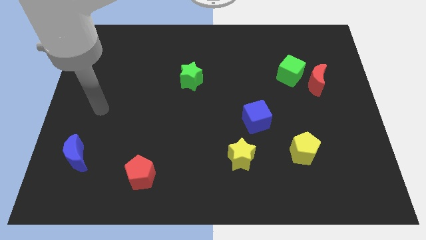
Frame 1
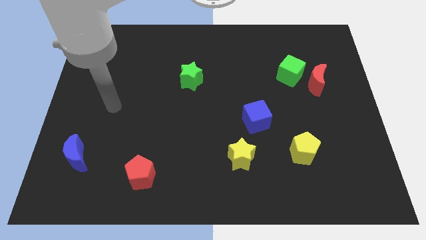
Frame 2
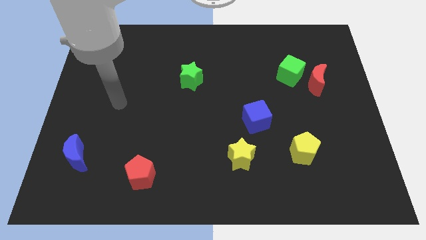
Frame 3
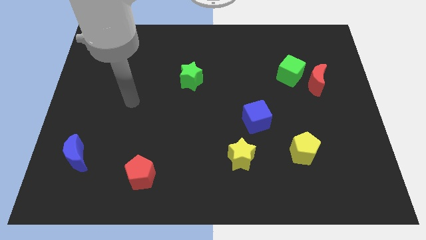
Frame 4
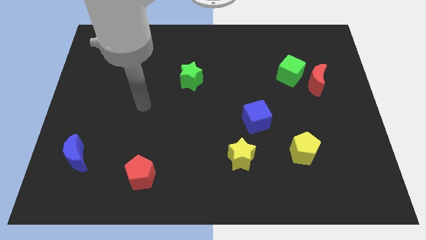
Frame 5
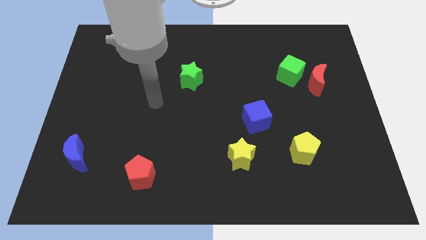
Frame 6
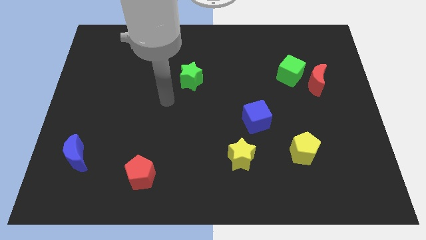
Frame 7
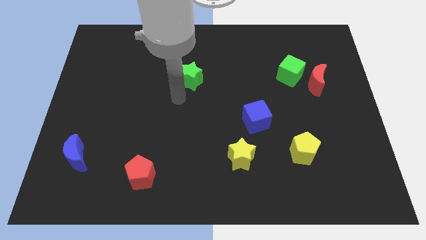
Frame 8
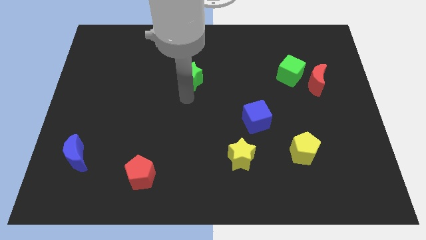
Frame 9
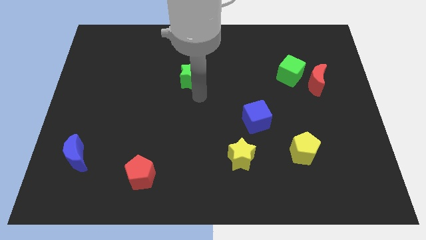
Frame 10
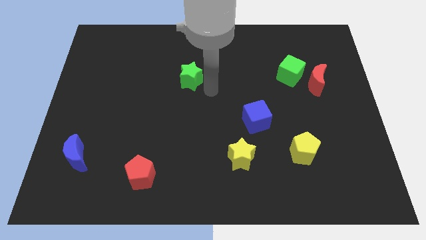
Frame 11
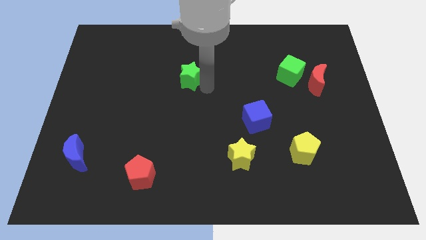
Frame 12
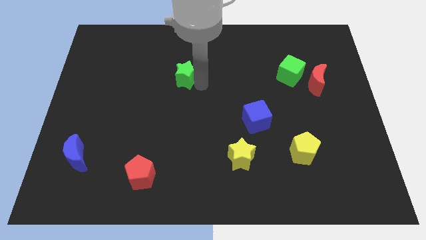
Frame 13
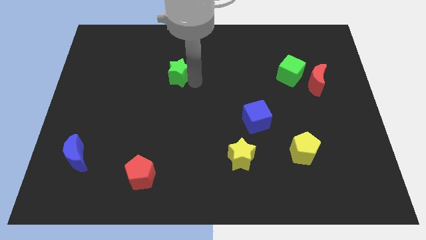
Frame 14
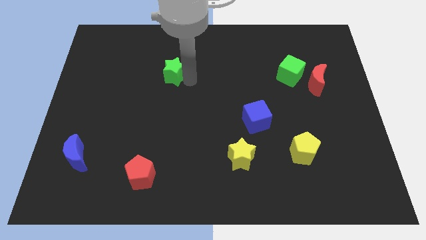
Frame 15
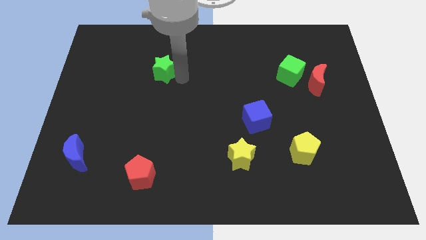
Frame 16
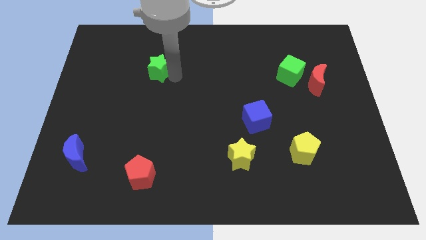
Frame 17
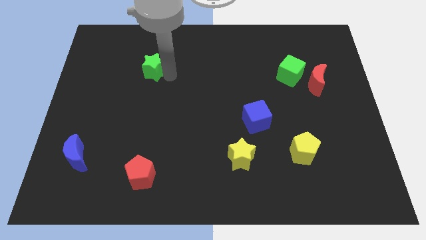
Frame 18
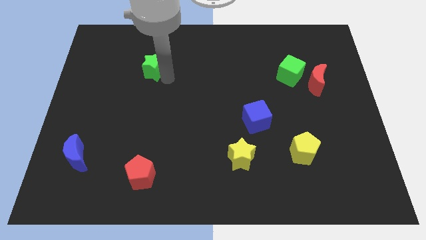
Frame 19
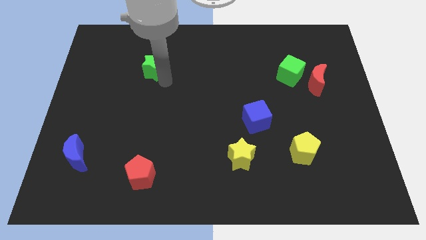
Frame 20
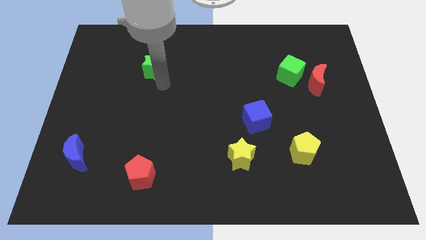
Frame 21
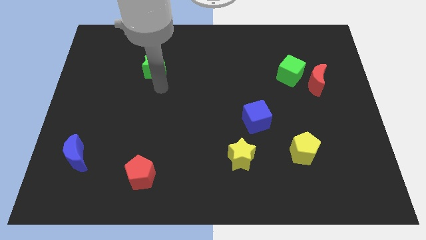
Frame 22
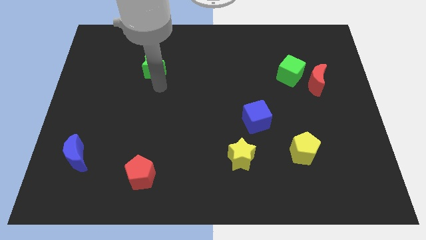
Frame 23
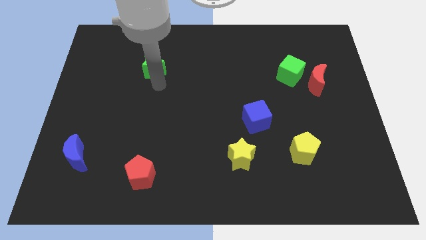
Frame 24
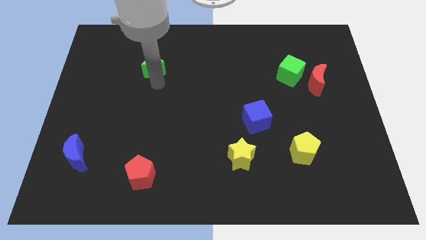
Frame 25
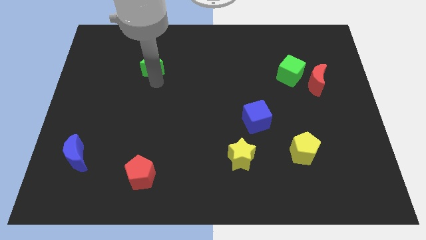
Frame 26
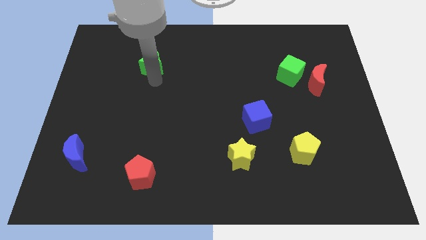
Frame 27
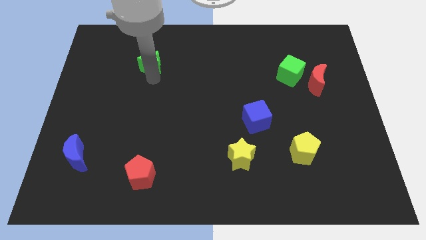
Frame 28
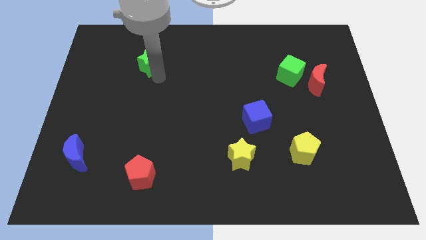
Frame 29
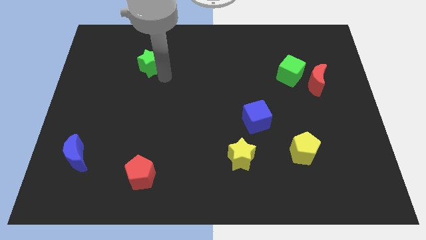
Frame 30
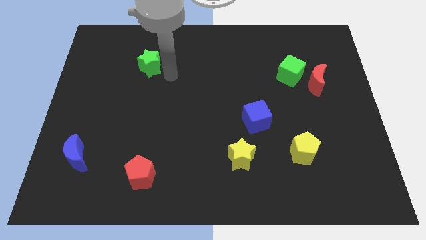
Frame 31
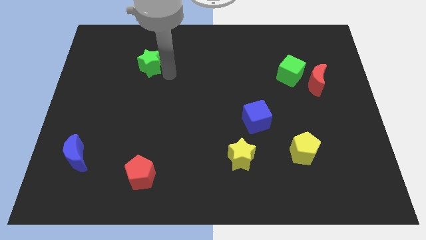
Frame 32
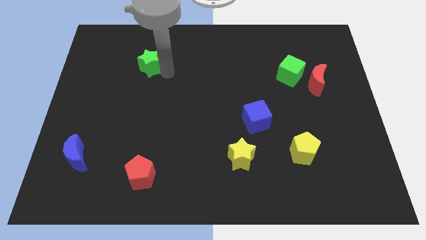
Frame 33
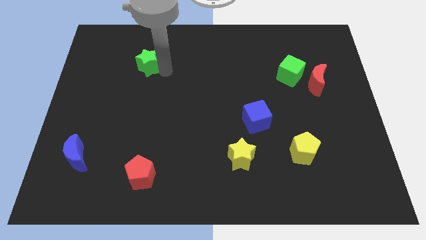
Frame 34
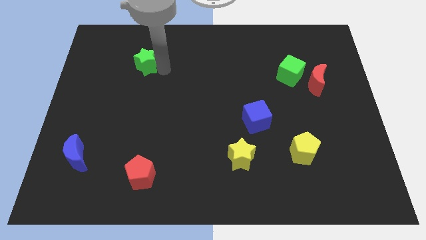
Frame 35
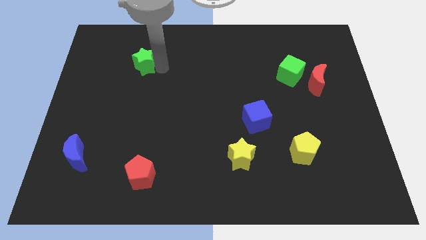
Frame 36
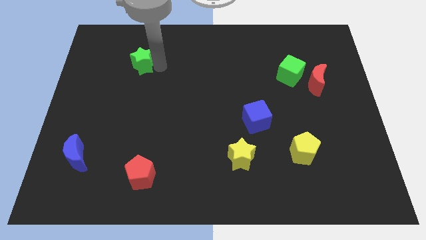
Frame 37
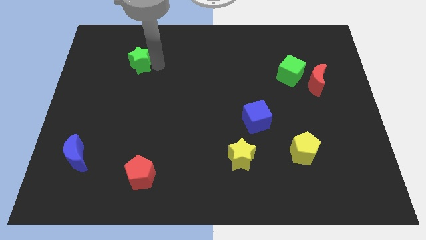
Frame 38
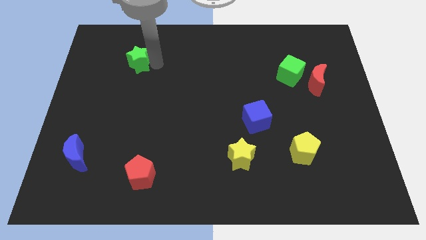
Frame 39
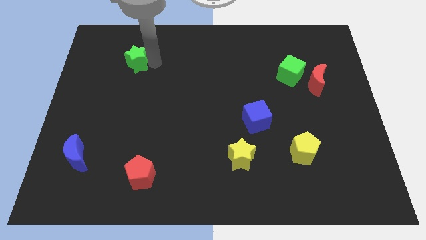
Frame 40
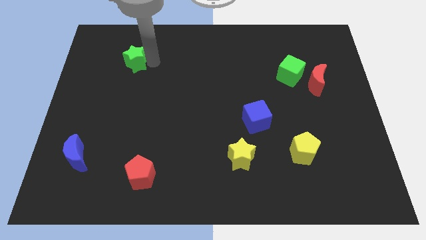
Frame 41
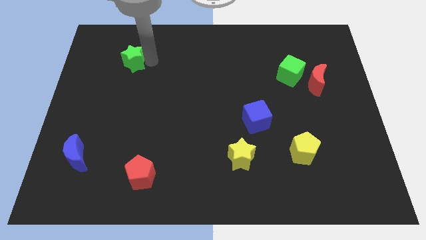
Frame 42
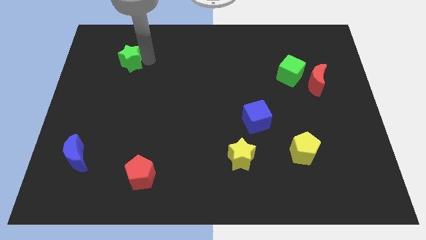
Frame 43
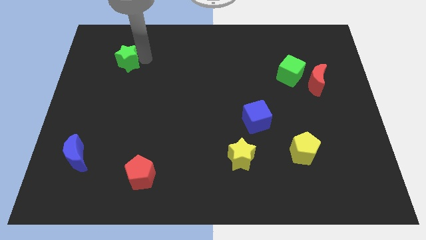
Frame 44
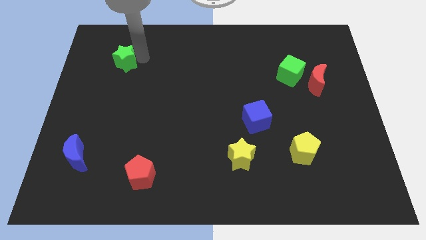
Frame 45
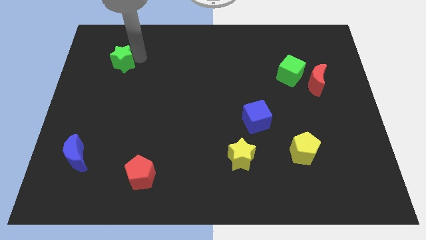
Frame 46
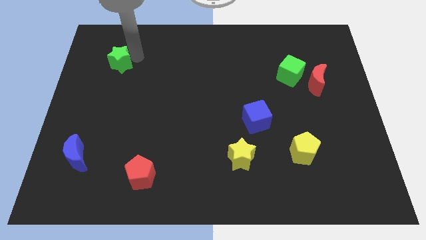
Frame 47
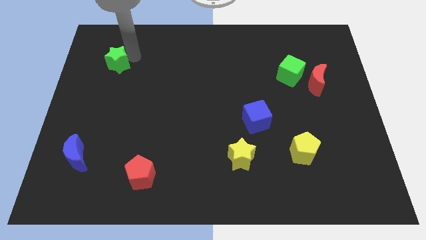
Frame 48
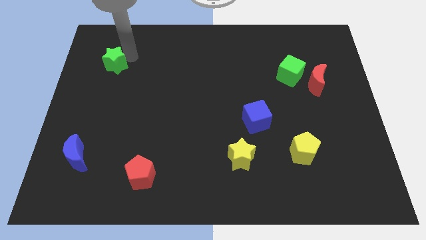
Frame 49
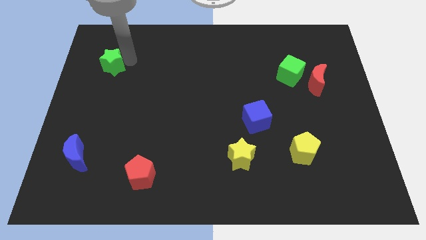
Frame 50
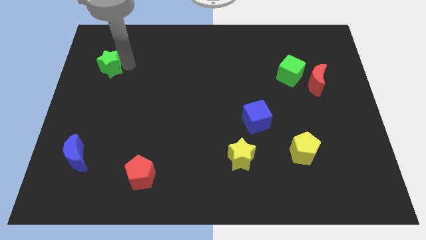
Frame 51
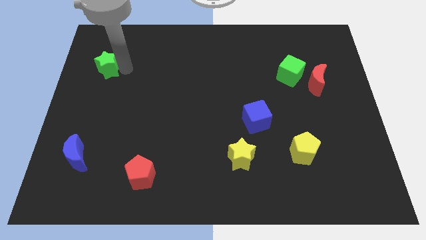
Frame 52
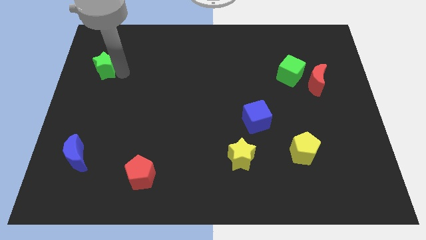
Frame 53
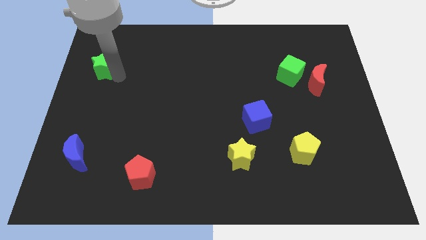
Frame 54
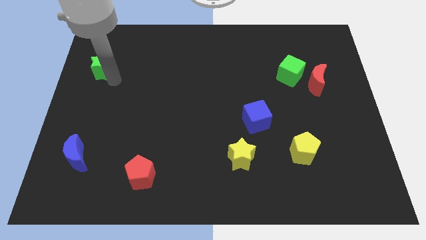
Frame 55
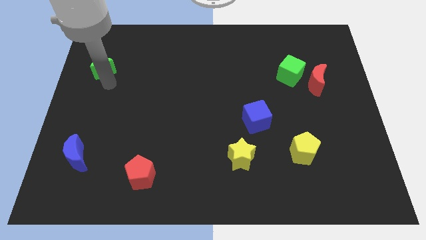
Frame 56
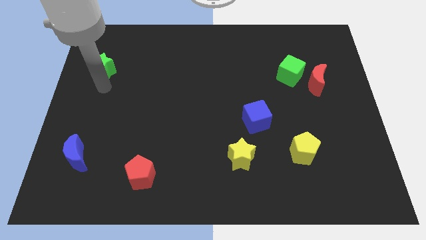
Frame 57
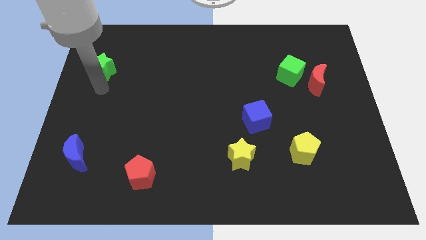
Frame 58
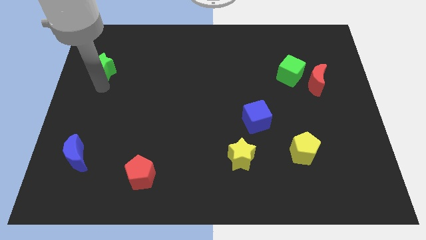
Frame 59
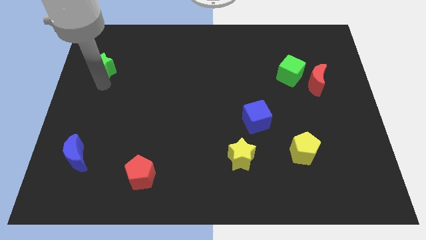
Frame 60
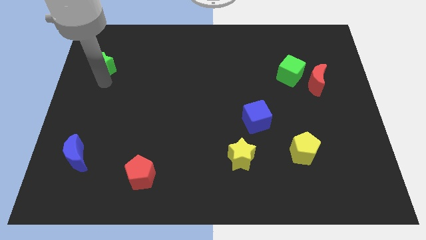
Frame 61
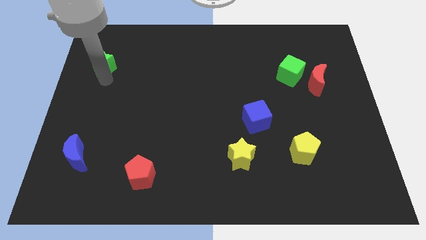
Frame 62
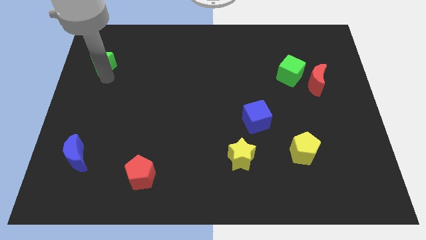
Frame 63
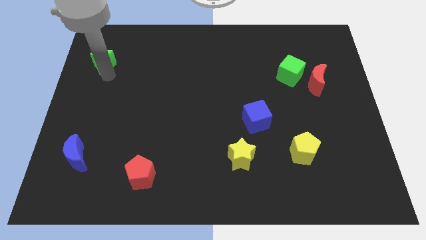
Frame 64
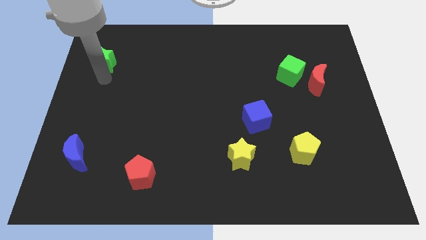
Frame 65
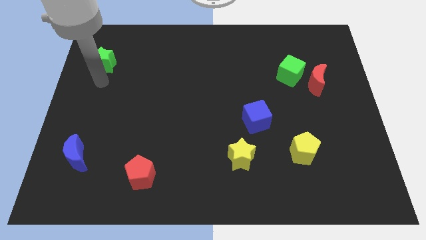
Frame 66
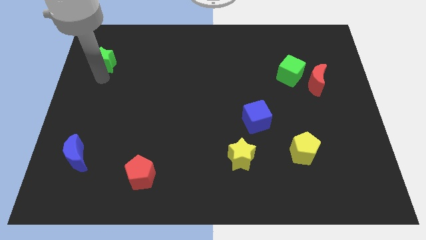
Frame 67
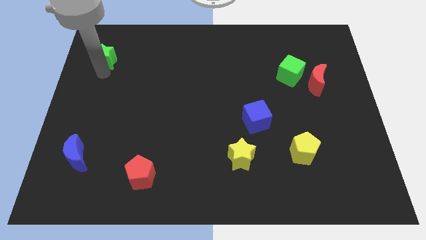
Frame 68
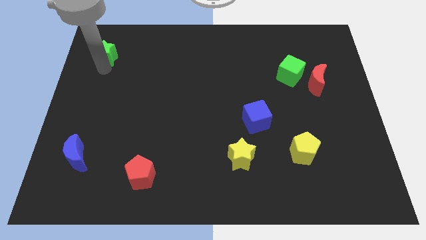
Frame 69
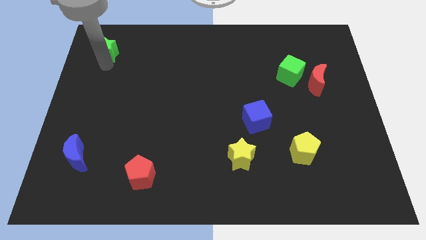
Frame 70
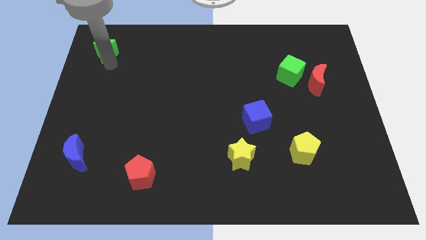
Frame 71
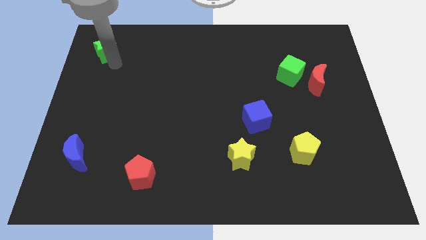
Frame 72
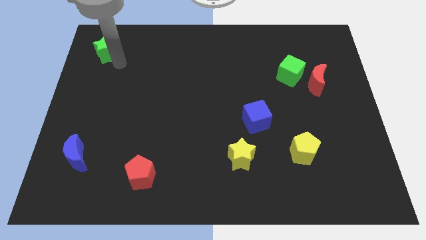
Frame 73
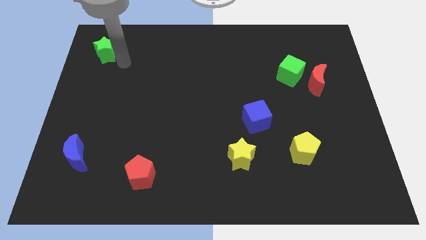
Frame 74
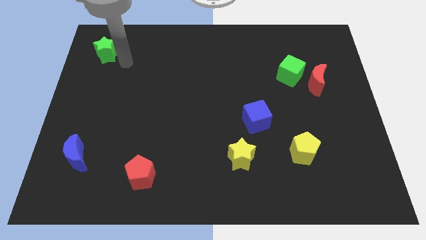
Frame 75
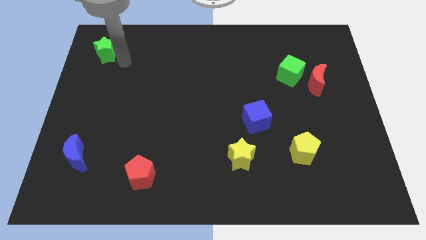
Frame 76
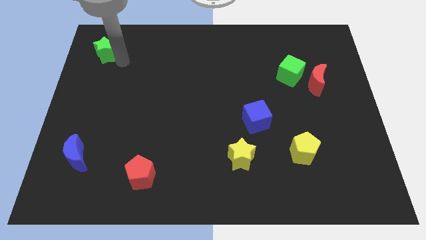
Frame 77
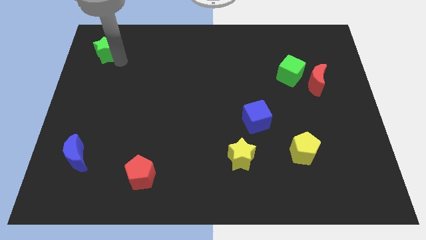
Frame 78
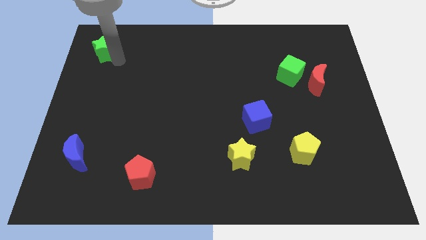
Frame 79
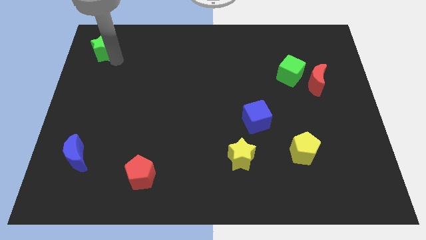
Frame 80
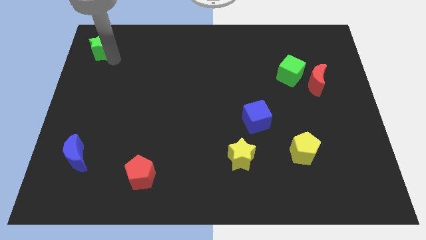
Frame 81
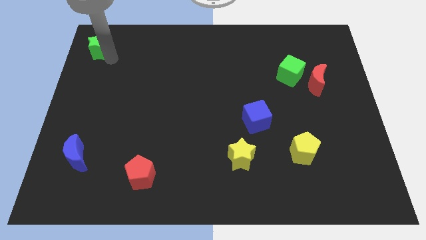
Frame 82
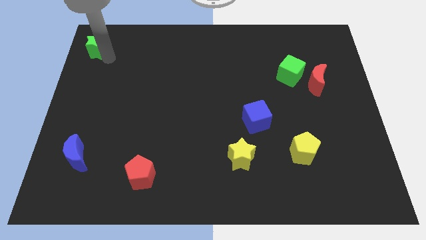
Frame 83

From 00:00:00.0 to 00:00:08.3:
move the green star to the top left of the board
